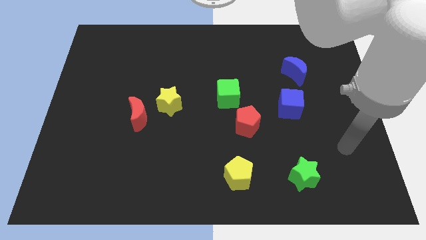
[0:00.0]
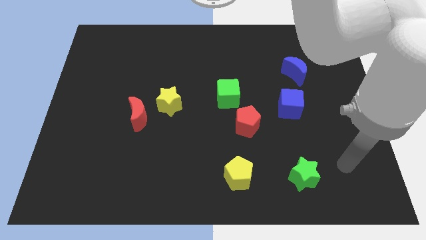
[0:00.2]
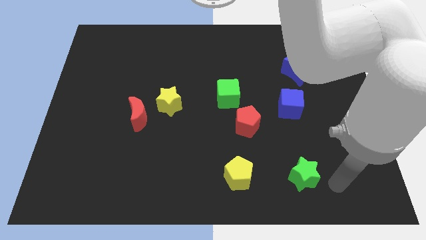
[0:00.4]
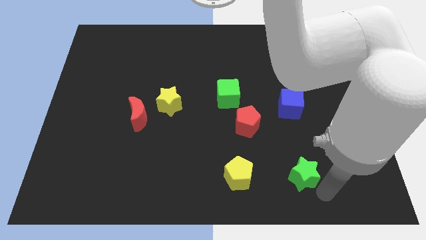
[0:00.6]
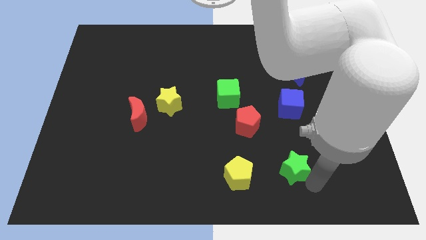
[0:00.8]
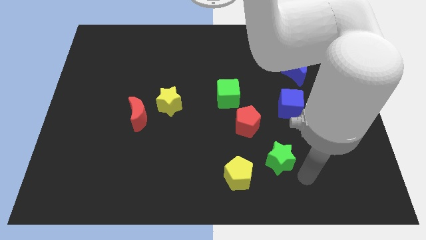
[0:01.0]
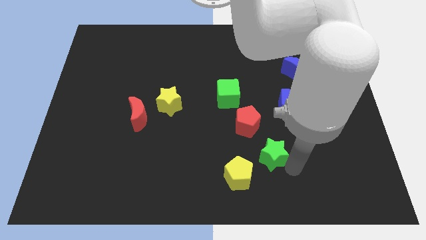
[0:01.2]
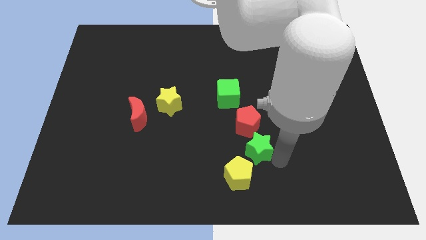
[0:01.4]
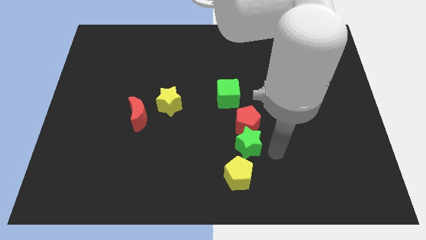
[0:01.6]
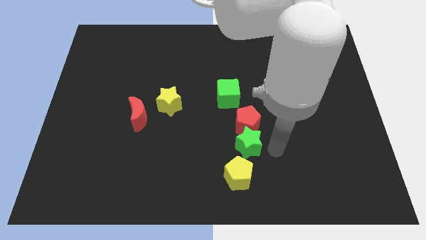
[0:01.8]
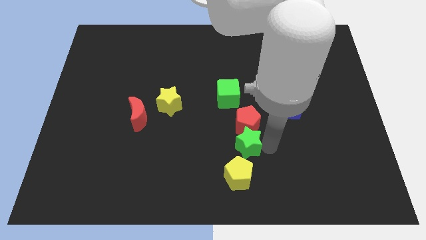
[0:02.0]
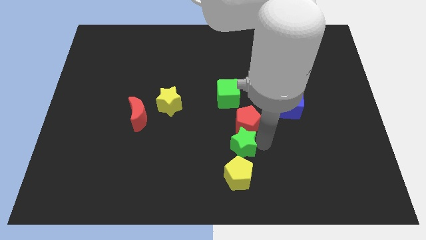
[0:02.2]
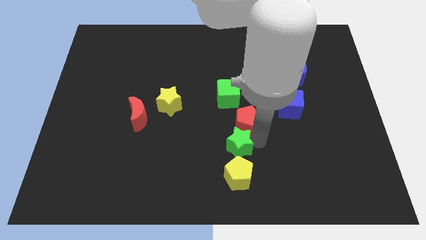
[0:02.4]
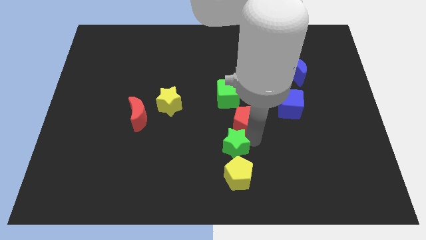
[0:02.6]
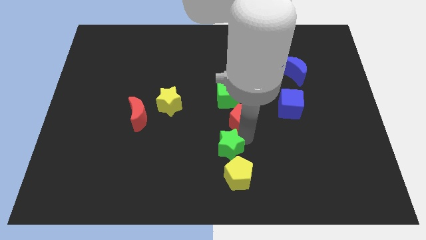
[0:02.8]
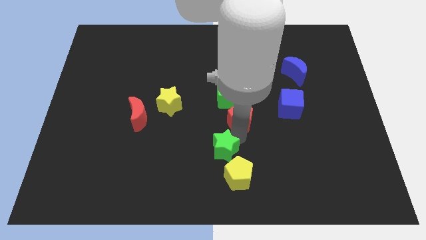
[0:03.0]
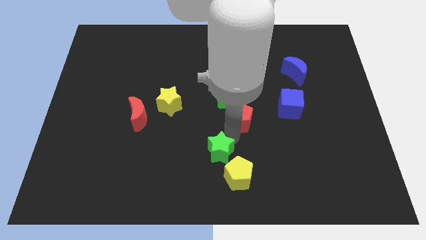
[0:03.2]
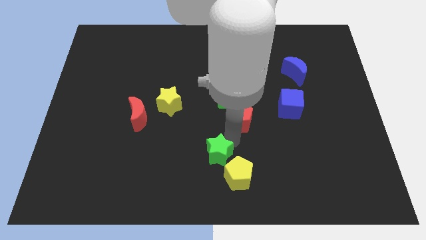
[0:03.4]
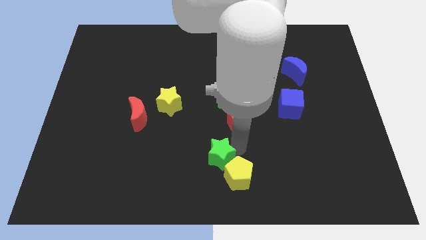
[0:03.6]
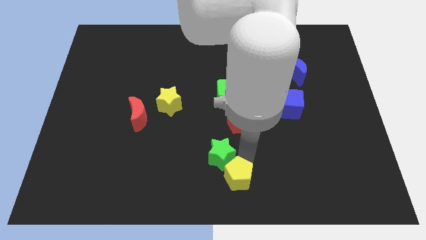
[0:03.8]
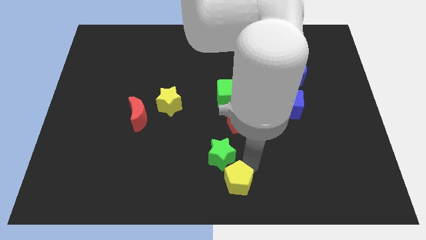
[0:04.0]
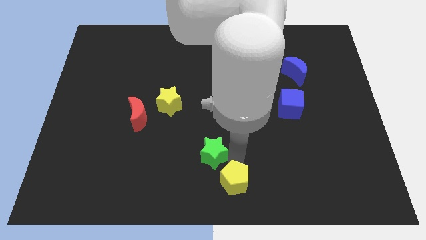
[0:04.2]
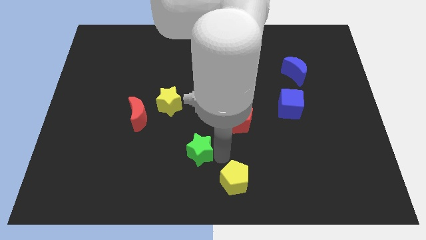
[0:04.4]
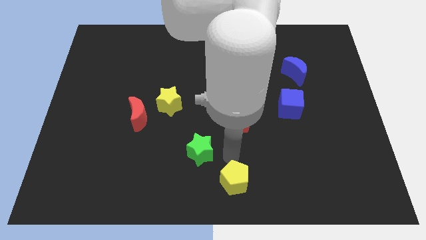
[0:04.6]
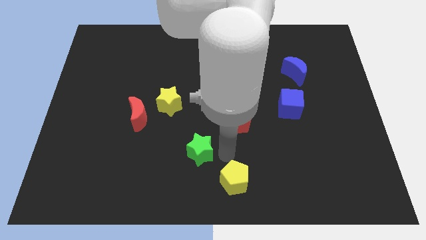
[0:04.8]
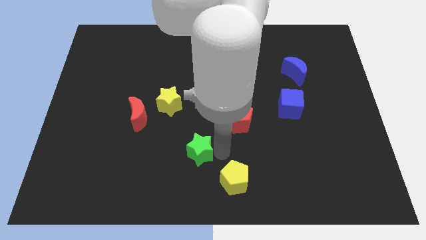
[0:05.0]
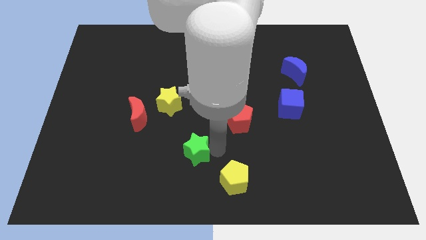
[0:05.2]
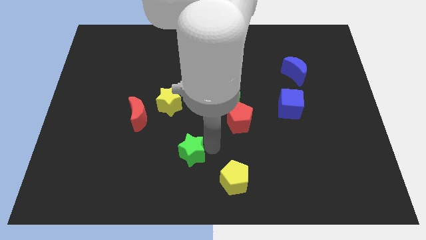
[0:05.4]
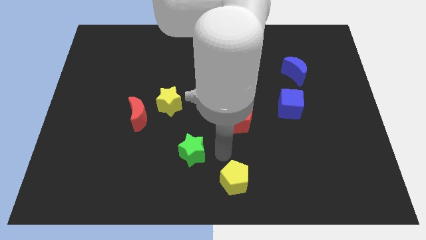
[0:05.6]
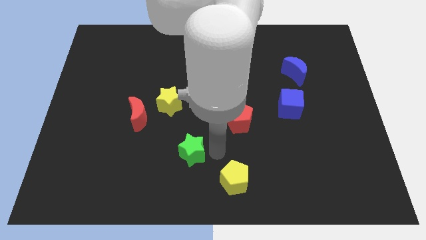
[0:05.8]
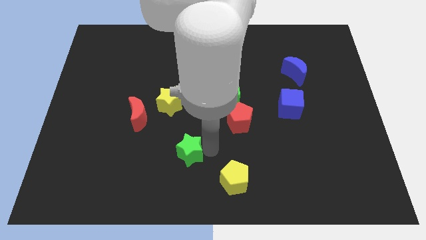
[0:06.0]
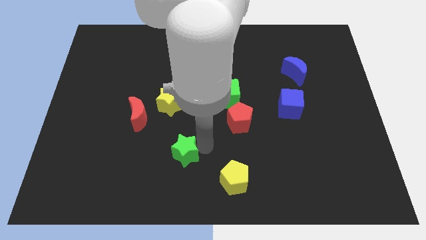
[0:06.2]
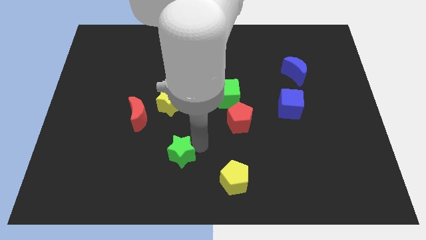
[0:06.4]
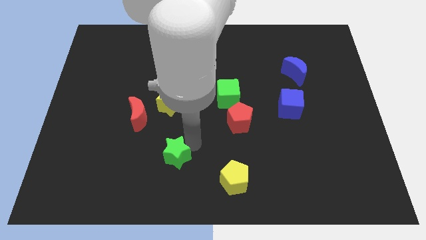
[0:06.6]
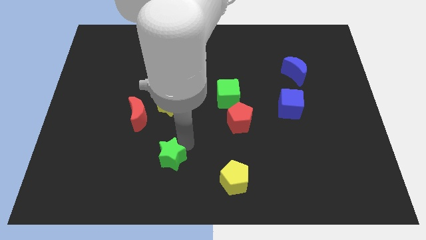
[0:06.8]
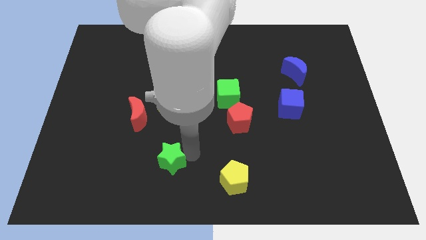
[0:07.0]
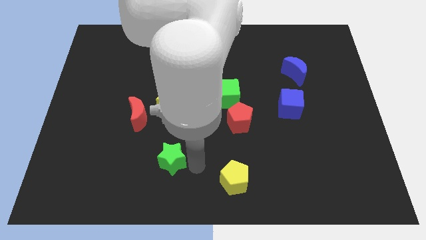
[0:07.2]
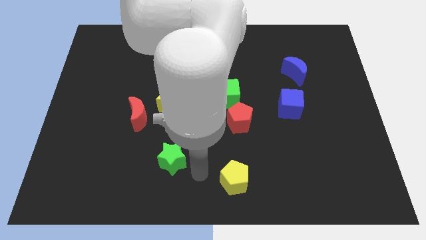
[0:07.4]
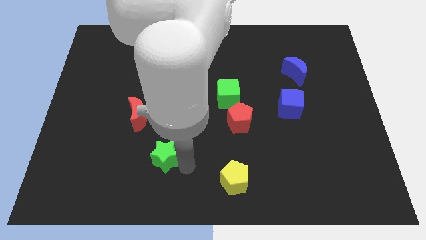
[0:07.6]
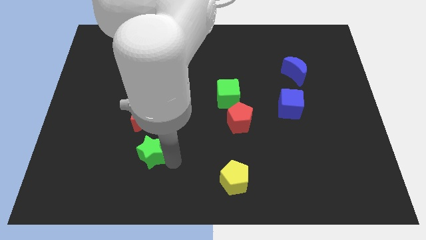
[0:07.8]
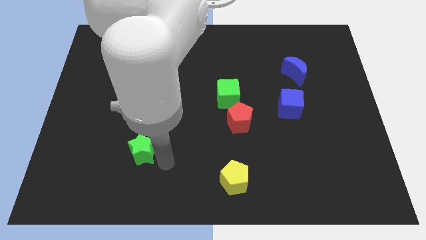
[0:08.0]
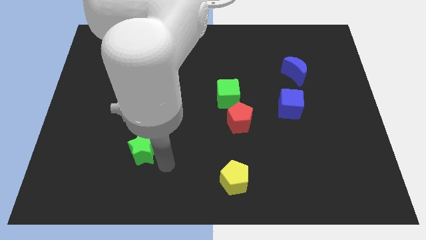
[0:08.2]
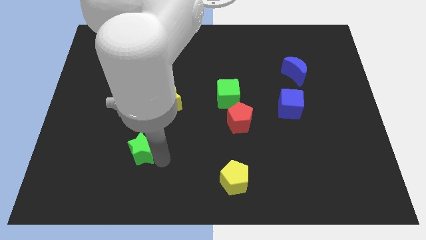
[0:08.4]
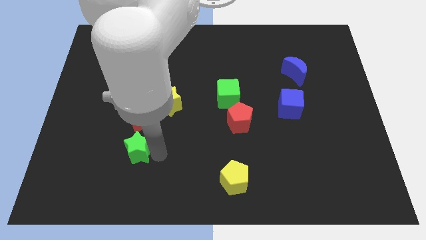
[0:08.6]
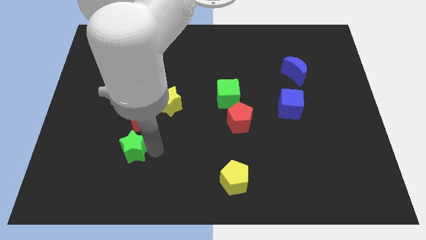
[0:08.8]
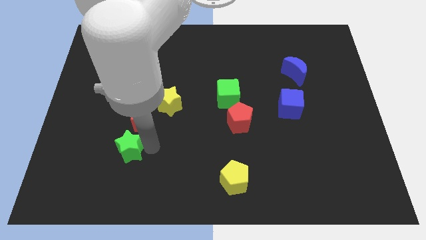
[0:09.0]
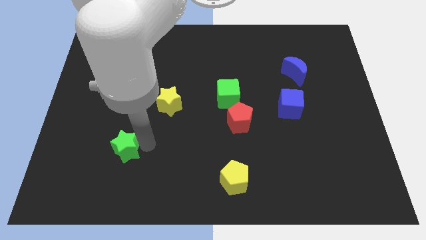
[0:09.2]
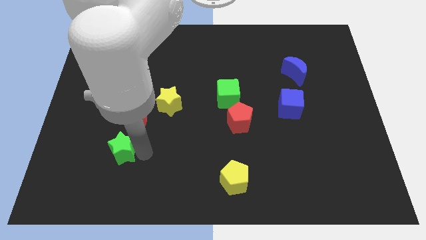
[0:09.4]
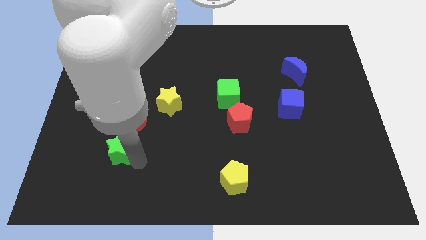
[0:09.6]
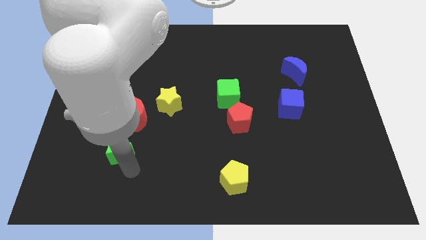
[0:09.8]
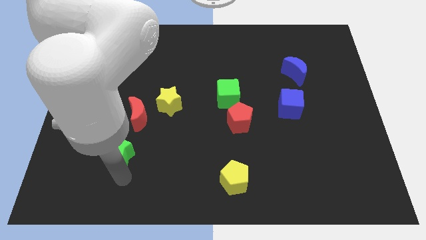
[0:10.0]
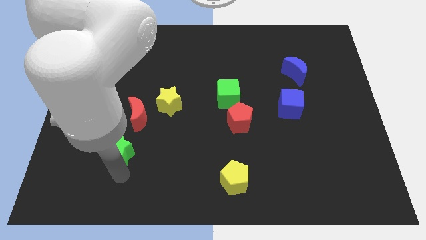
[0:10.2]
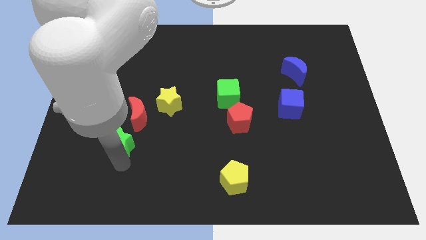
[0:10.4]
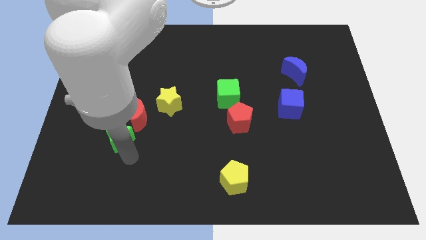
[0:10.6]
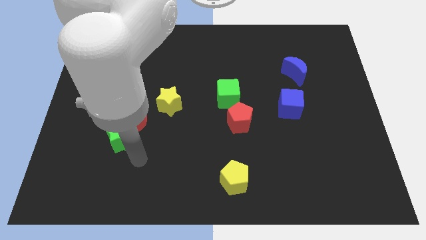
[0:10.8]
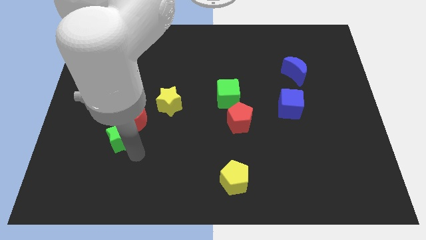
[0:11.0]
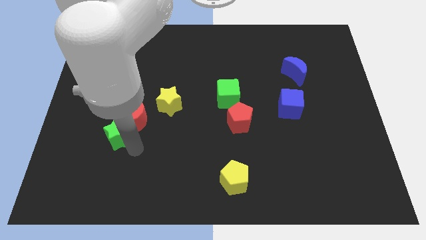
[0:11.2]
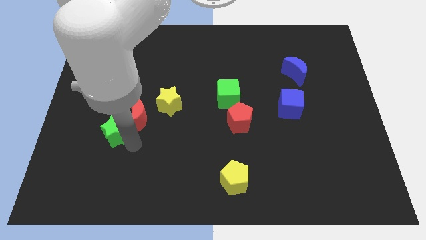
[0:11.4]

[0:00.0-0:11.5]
slide the green star left of the red moon

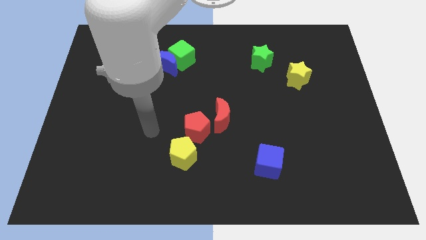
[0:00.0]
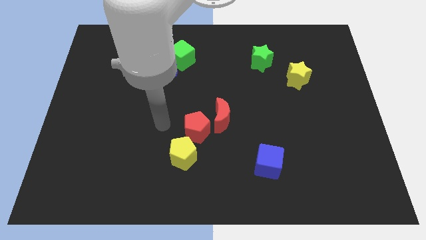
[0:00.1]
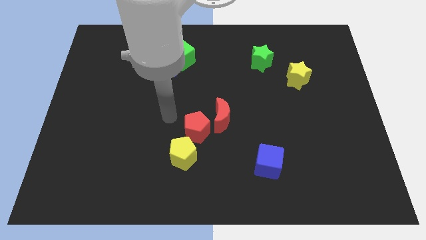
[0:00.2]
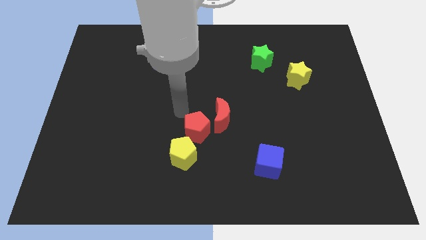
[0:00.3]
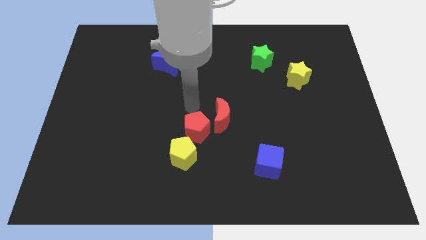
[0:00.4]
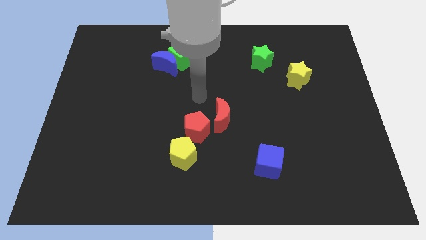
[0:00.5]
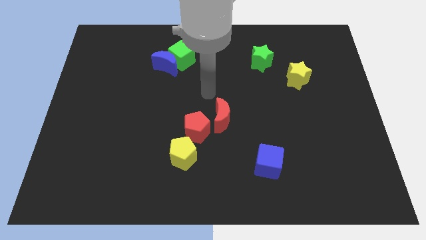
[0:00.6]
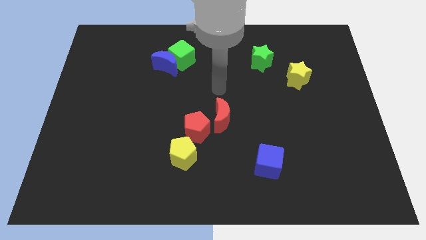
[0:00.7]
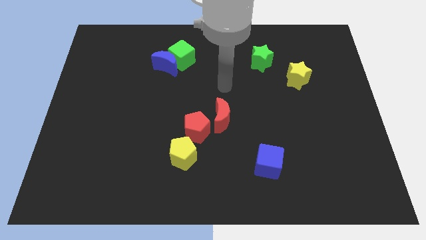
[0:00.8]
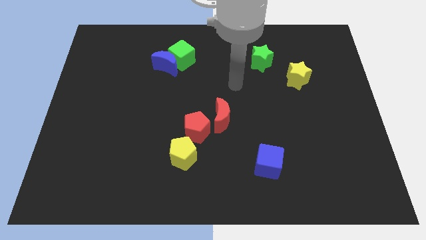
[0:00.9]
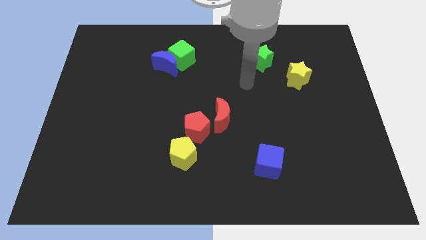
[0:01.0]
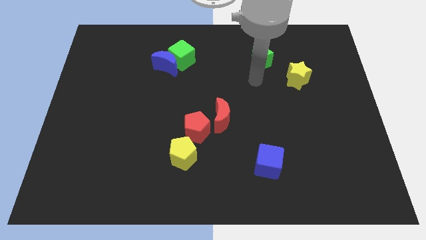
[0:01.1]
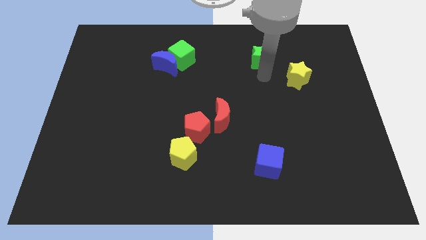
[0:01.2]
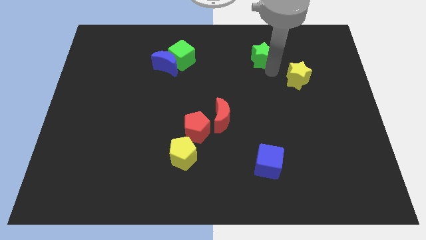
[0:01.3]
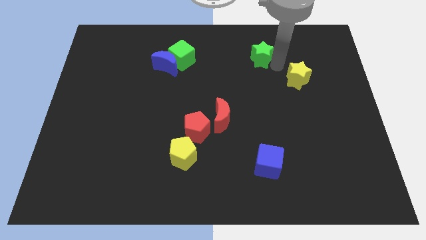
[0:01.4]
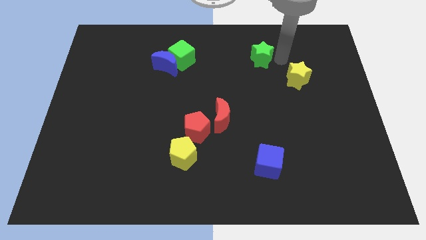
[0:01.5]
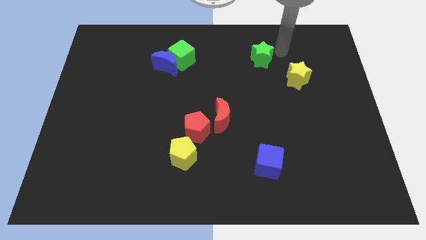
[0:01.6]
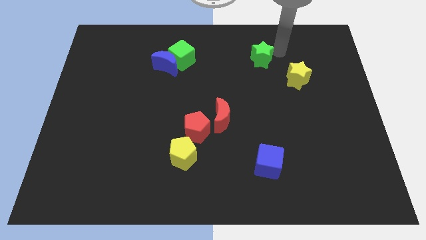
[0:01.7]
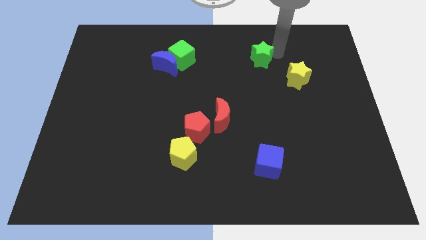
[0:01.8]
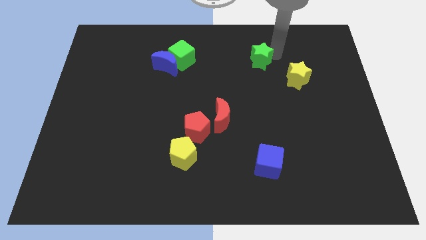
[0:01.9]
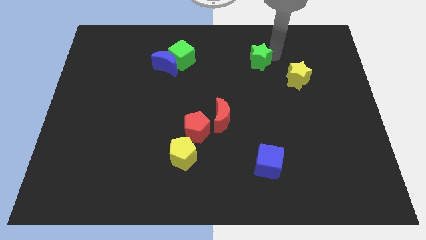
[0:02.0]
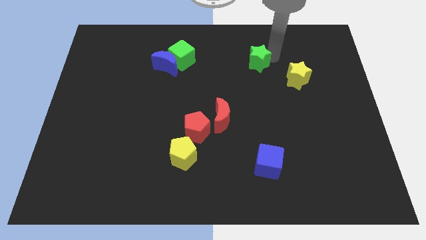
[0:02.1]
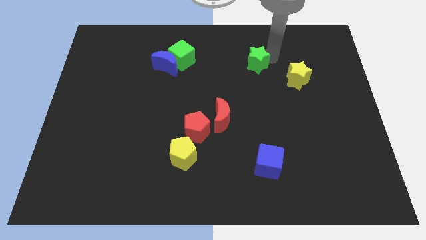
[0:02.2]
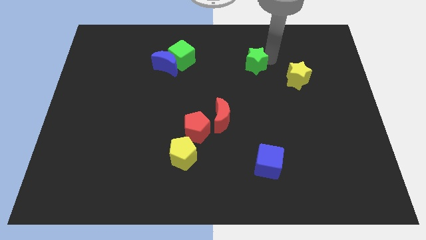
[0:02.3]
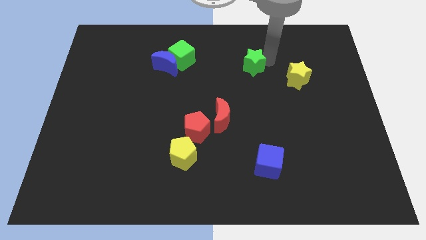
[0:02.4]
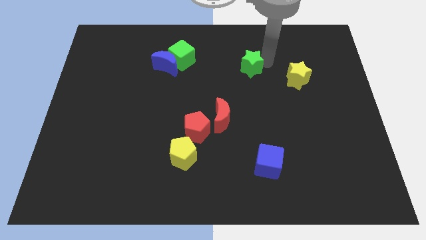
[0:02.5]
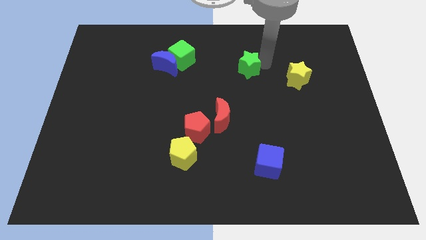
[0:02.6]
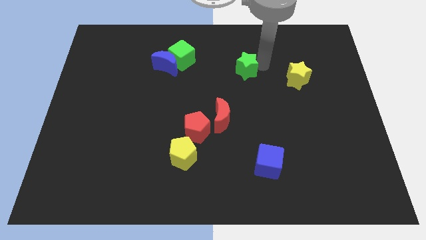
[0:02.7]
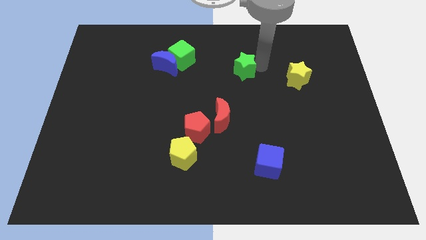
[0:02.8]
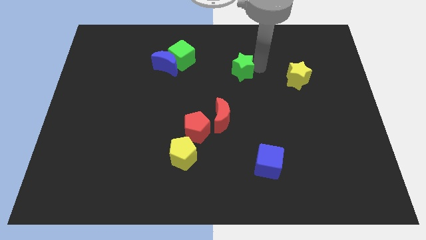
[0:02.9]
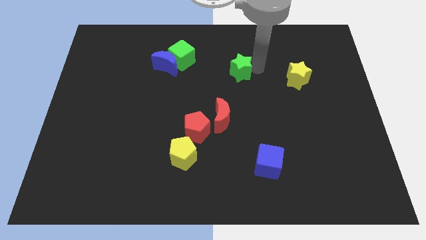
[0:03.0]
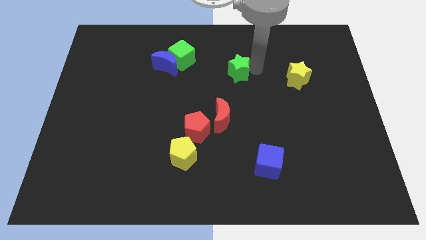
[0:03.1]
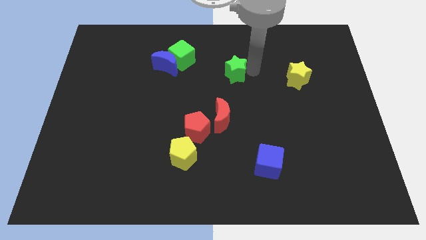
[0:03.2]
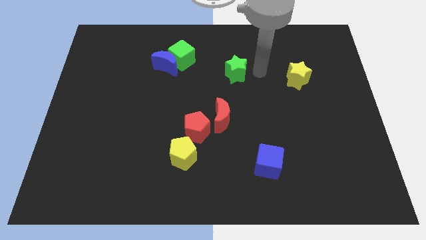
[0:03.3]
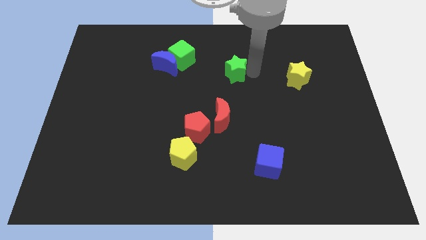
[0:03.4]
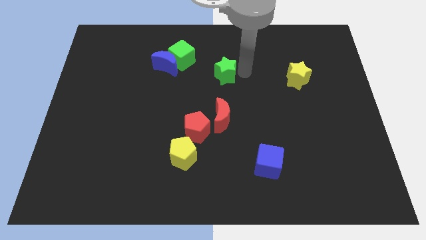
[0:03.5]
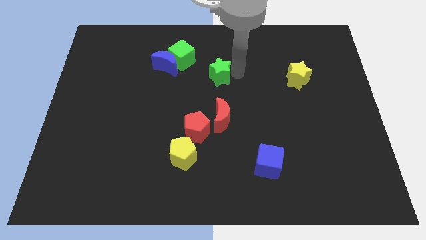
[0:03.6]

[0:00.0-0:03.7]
put the green star diagonally down and to the right of the green cube
